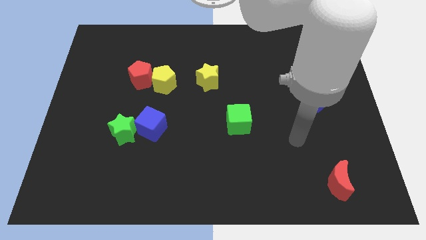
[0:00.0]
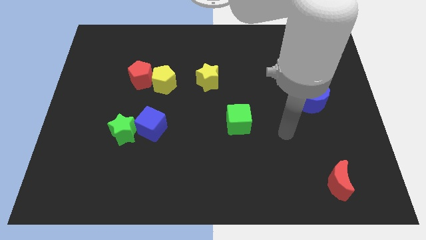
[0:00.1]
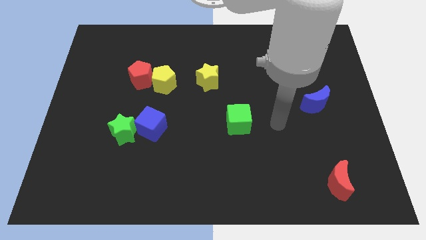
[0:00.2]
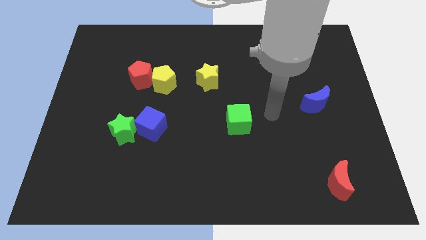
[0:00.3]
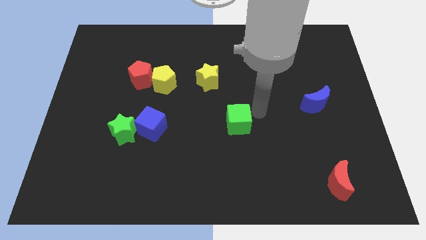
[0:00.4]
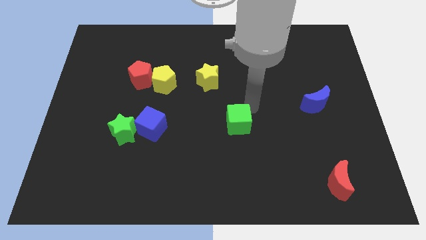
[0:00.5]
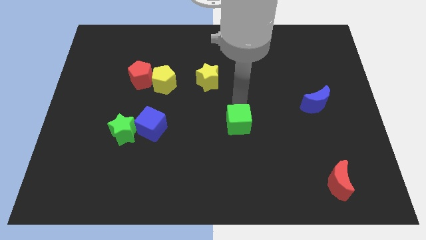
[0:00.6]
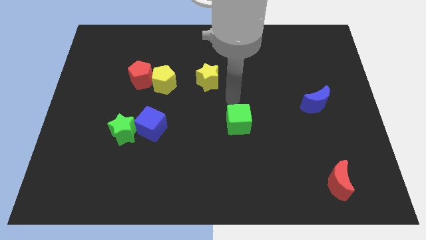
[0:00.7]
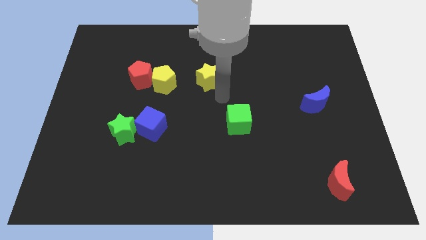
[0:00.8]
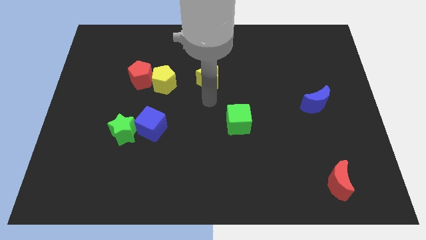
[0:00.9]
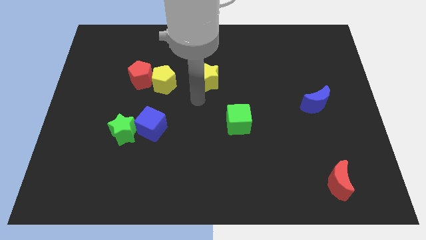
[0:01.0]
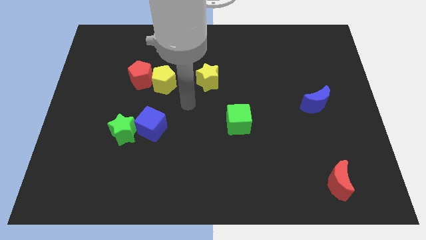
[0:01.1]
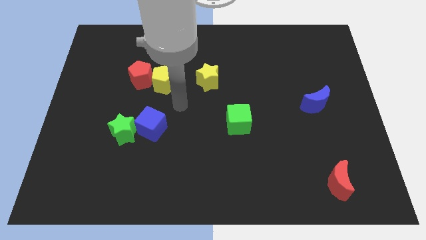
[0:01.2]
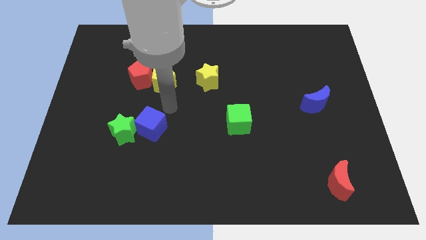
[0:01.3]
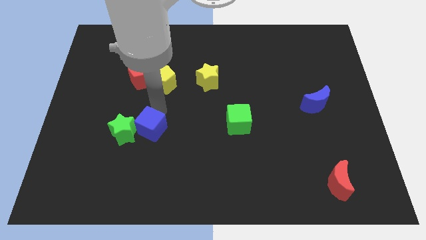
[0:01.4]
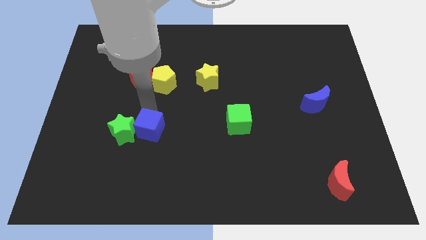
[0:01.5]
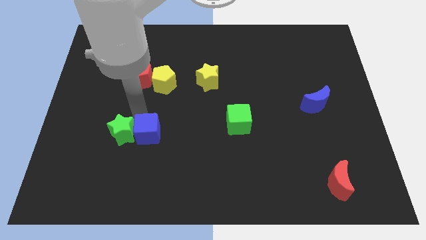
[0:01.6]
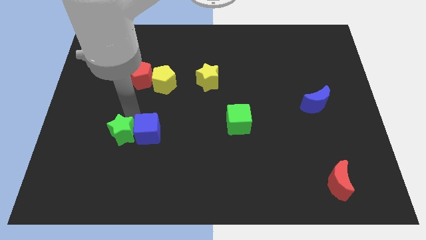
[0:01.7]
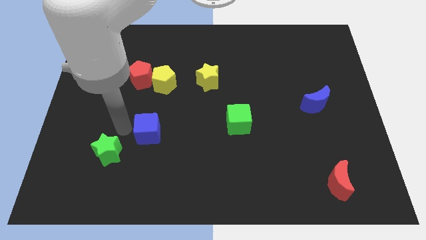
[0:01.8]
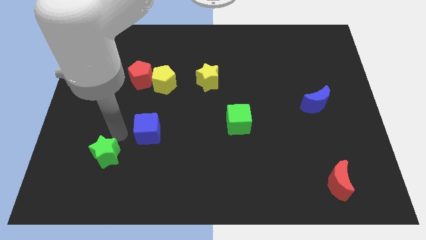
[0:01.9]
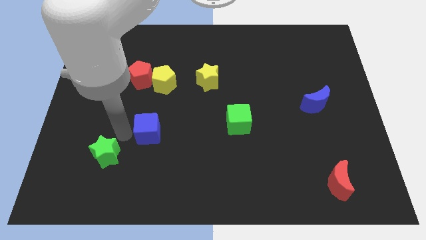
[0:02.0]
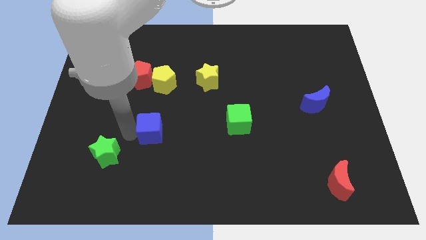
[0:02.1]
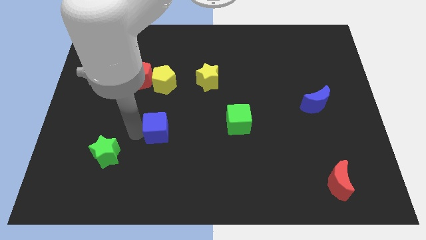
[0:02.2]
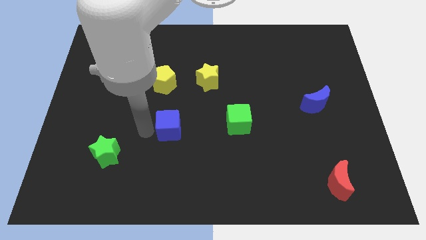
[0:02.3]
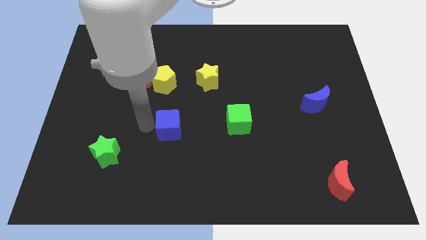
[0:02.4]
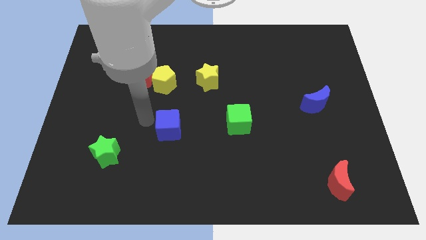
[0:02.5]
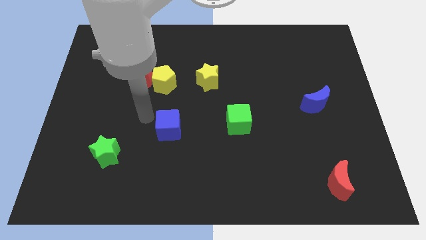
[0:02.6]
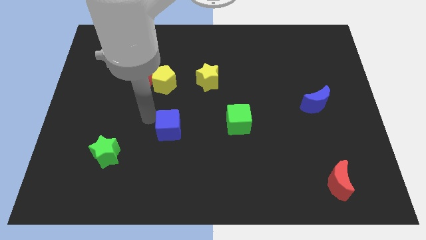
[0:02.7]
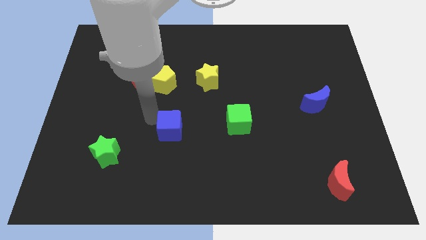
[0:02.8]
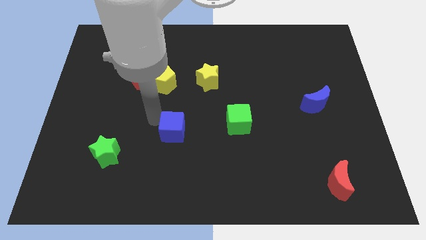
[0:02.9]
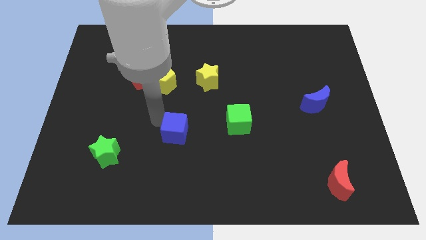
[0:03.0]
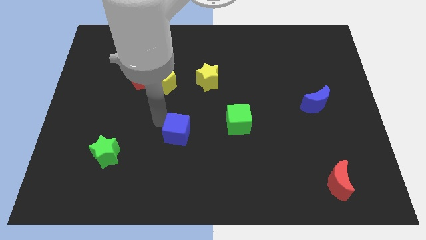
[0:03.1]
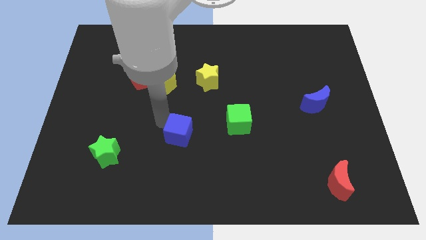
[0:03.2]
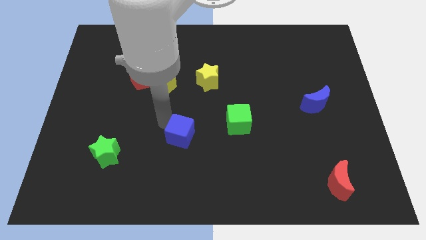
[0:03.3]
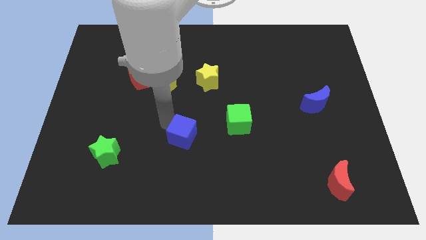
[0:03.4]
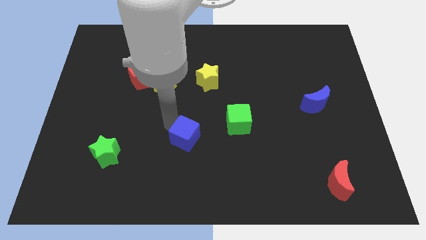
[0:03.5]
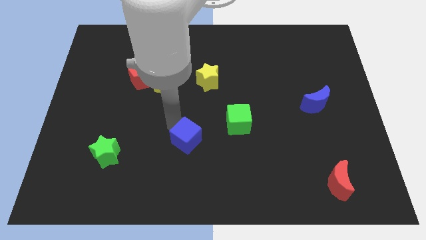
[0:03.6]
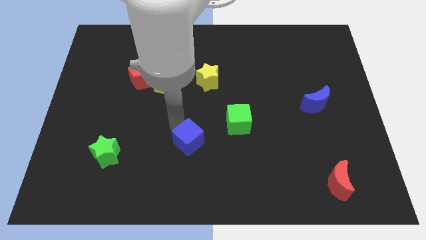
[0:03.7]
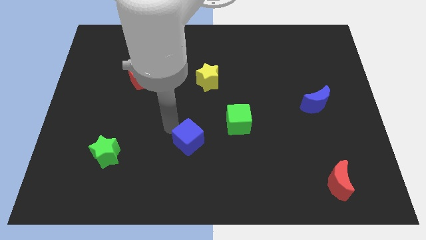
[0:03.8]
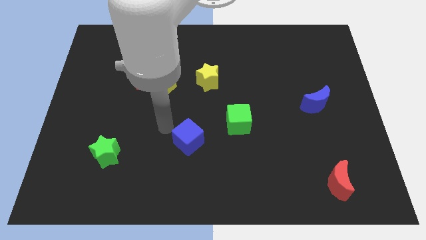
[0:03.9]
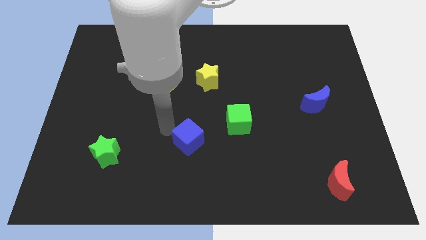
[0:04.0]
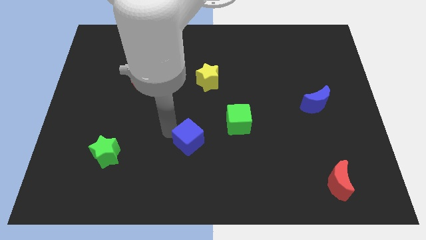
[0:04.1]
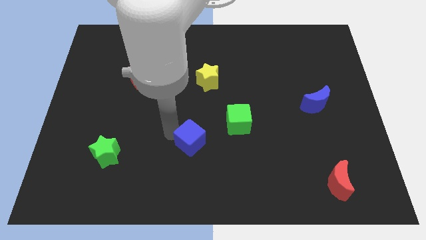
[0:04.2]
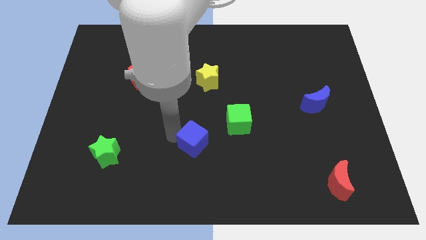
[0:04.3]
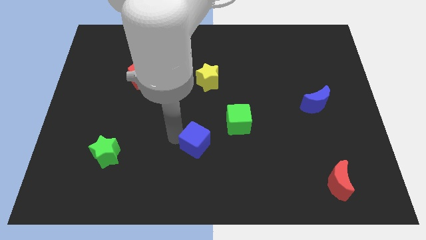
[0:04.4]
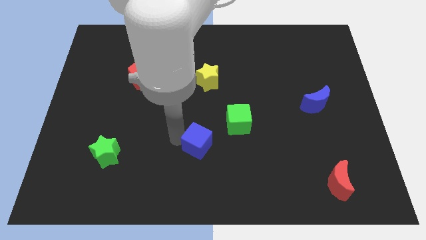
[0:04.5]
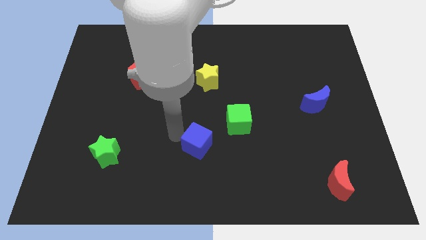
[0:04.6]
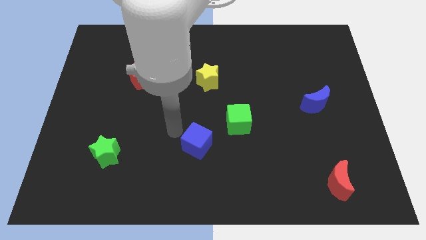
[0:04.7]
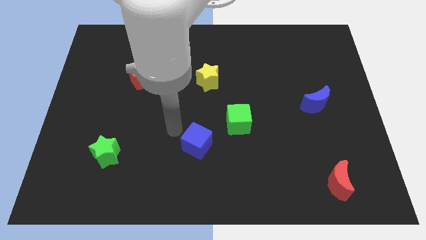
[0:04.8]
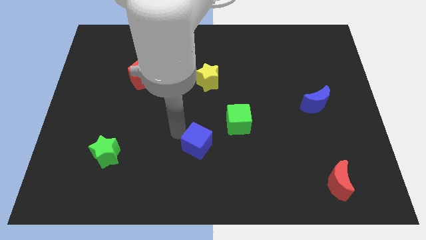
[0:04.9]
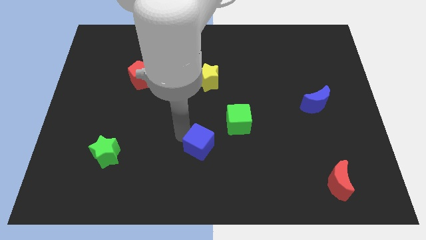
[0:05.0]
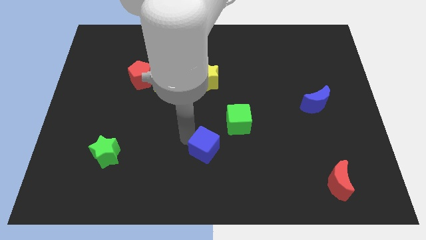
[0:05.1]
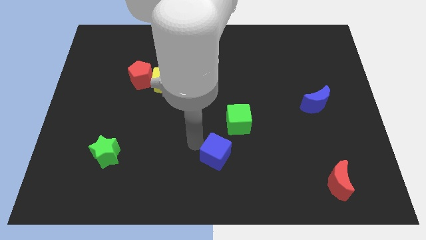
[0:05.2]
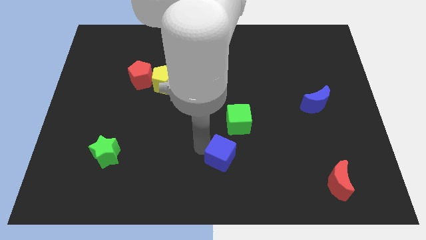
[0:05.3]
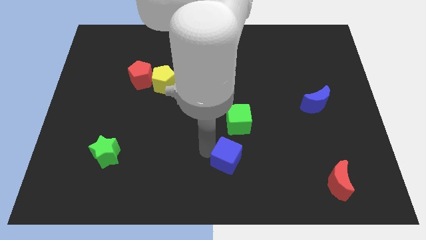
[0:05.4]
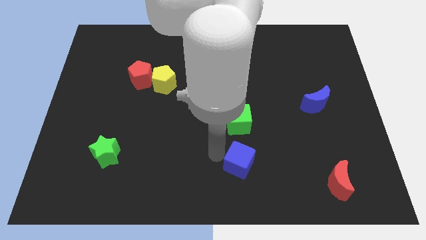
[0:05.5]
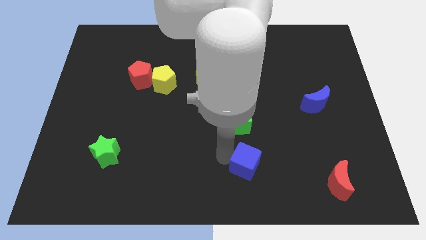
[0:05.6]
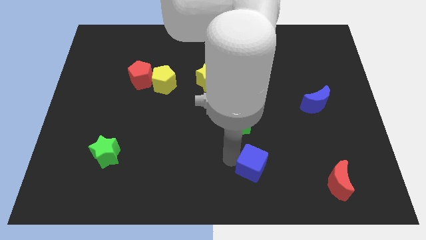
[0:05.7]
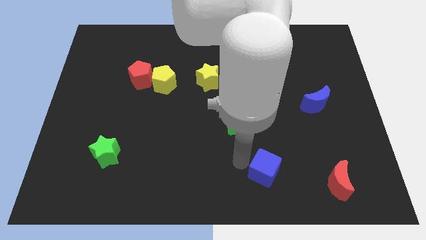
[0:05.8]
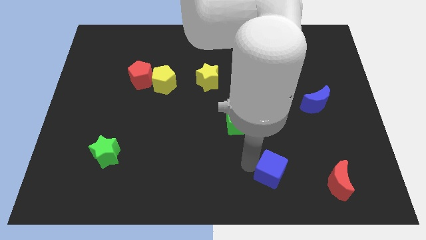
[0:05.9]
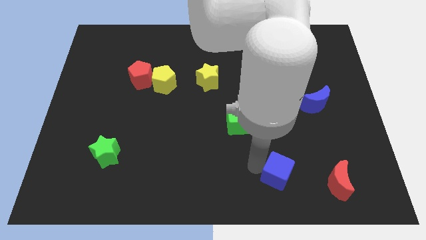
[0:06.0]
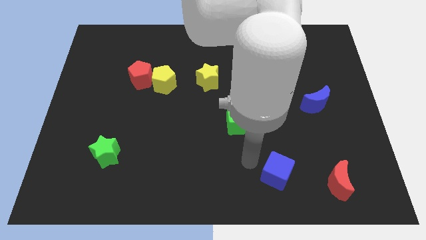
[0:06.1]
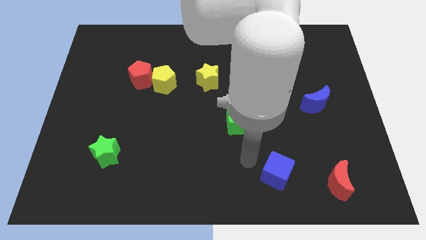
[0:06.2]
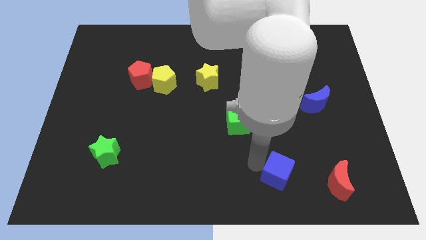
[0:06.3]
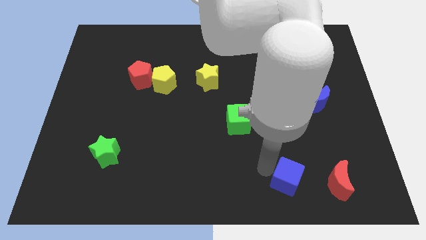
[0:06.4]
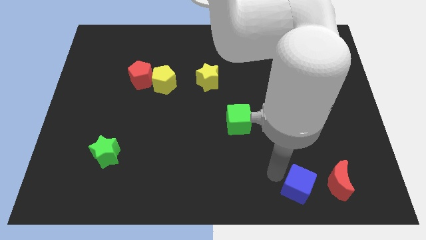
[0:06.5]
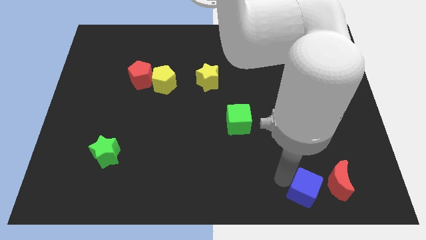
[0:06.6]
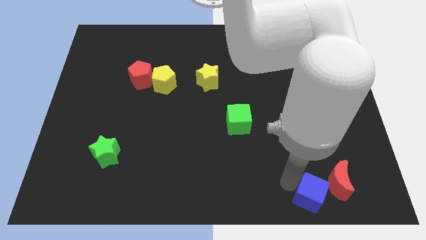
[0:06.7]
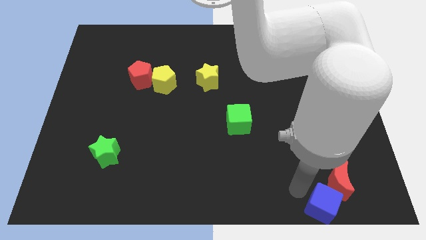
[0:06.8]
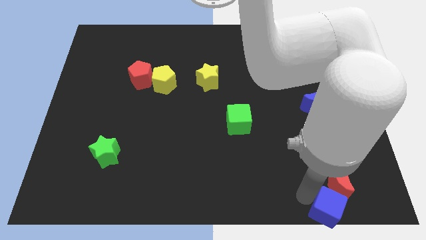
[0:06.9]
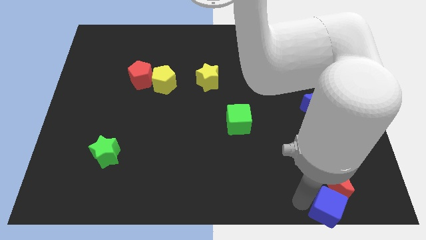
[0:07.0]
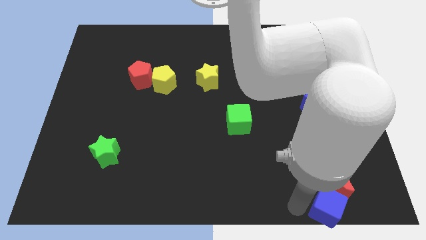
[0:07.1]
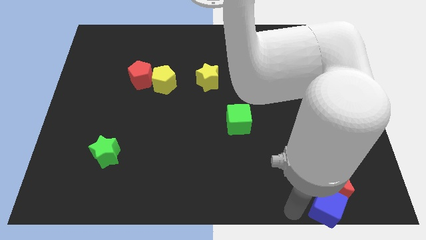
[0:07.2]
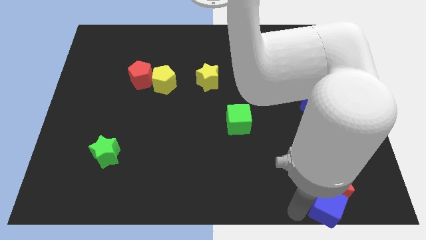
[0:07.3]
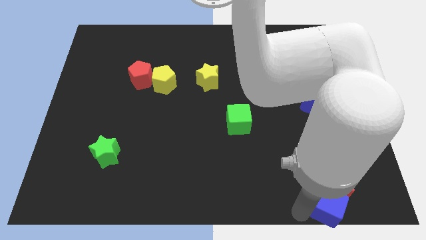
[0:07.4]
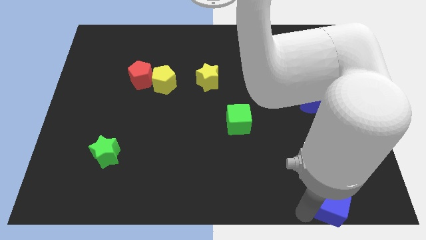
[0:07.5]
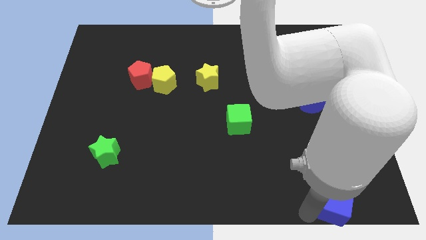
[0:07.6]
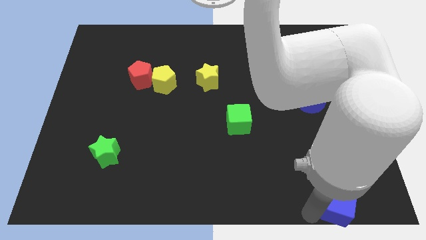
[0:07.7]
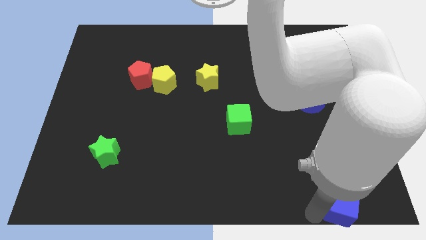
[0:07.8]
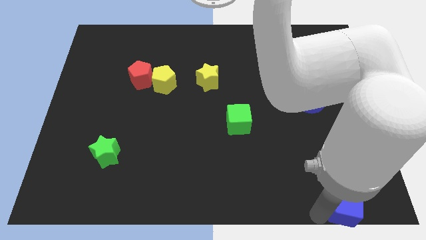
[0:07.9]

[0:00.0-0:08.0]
move the blue cube to the bottom right of the board
